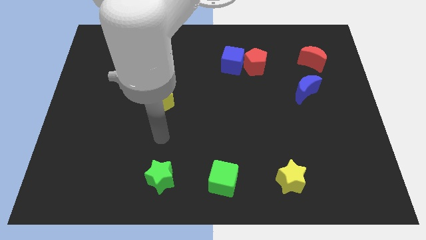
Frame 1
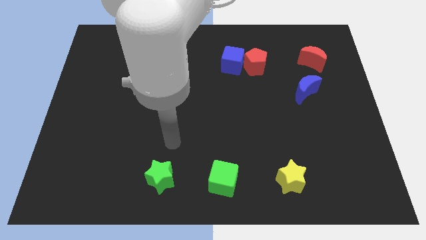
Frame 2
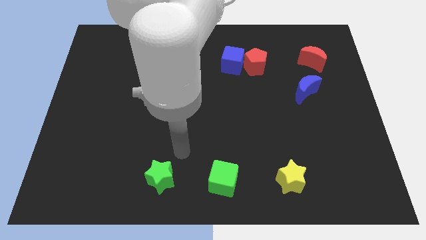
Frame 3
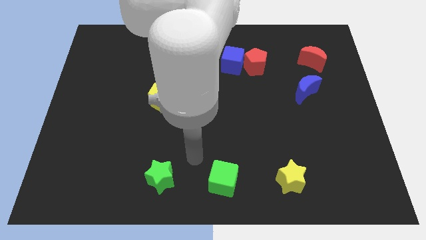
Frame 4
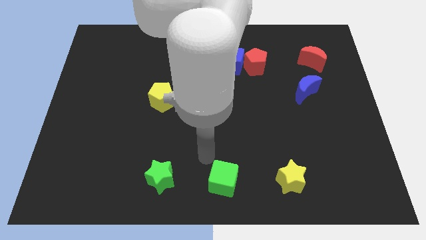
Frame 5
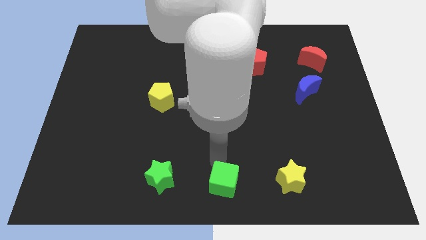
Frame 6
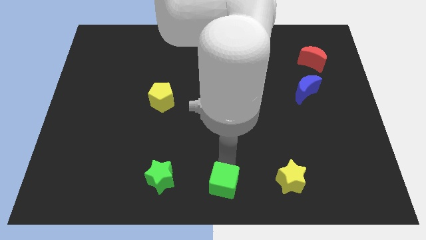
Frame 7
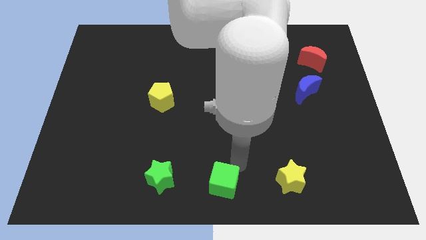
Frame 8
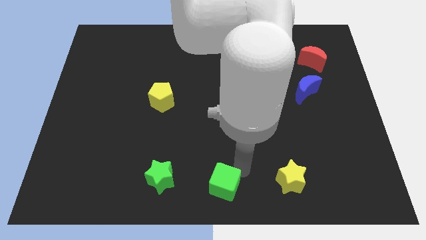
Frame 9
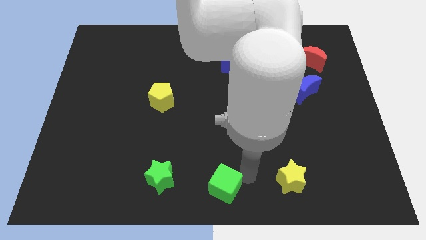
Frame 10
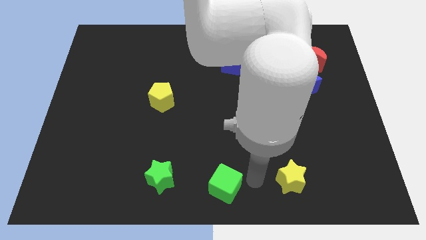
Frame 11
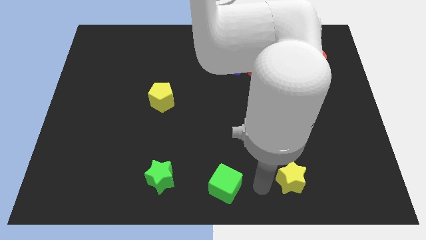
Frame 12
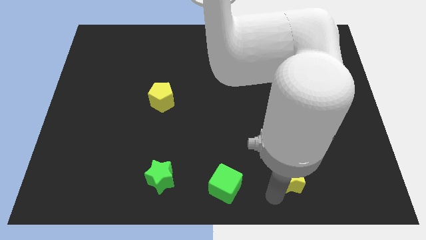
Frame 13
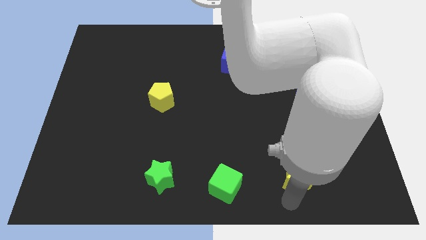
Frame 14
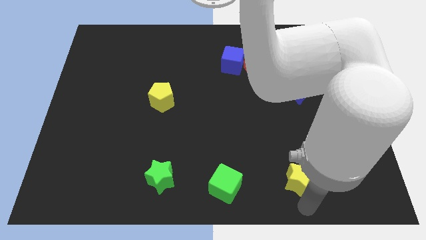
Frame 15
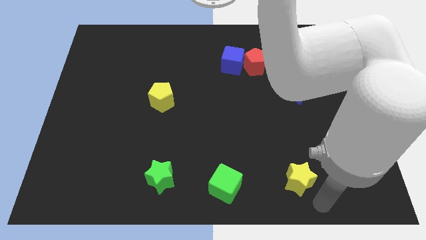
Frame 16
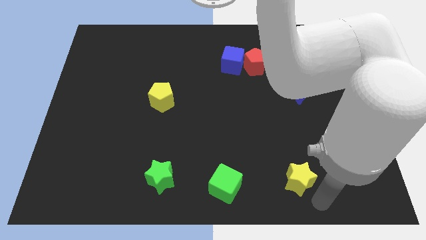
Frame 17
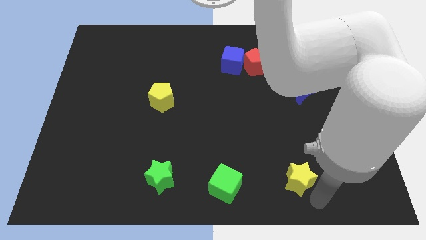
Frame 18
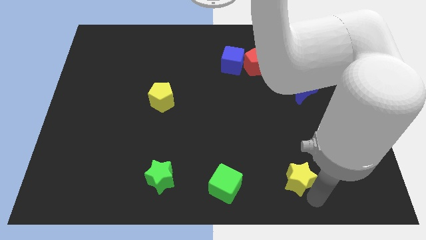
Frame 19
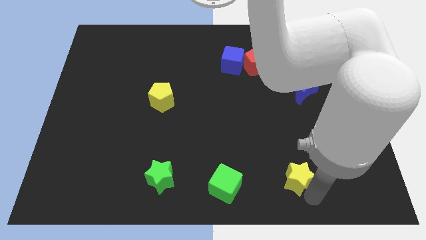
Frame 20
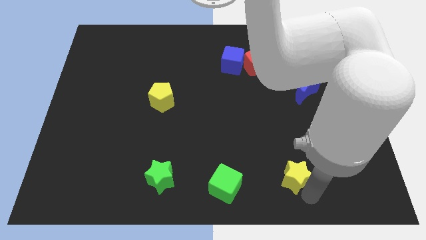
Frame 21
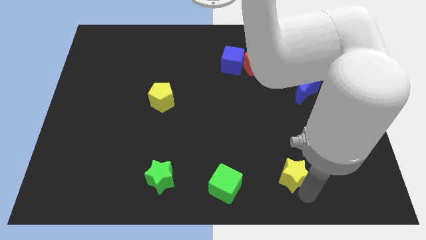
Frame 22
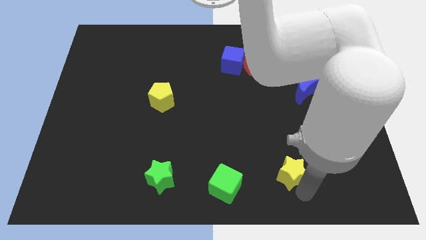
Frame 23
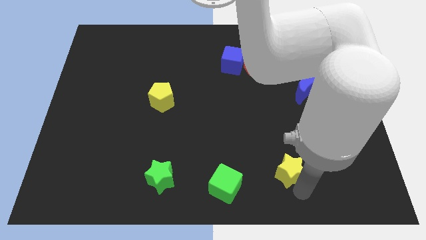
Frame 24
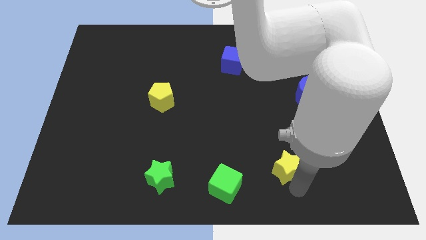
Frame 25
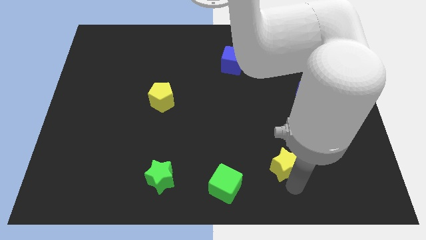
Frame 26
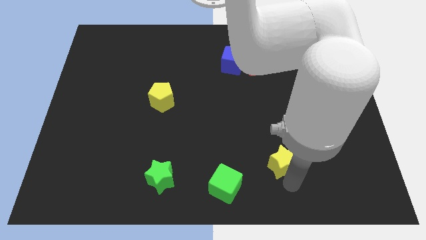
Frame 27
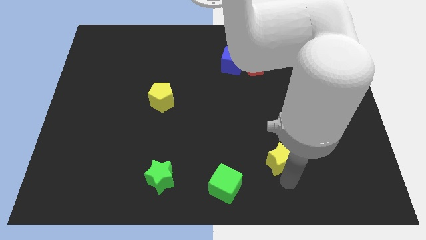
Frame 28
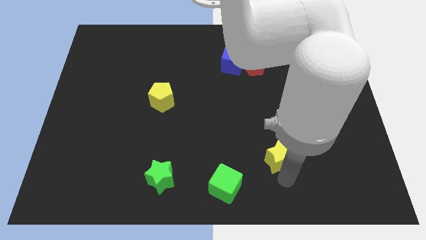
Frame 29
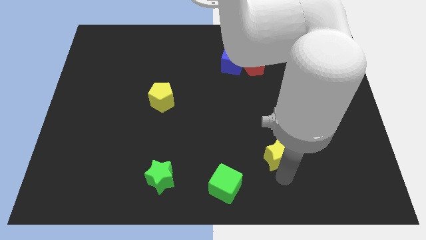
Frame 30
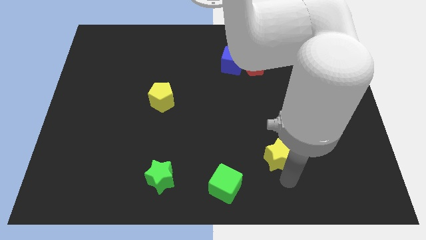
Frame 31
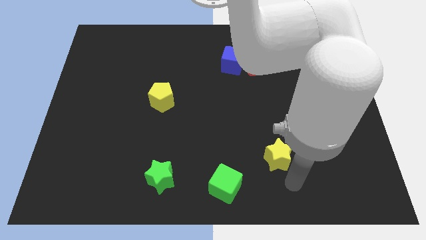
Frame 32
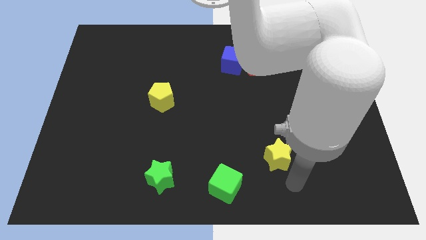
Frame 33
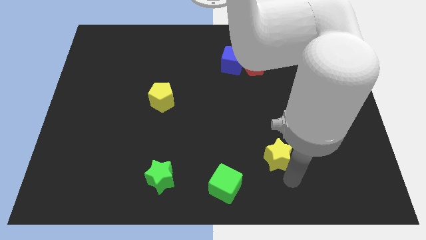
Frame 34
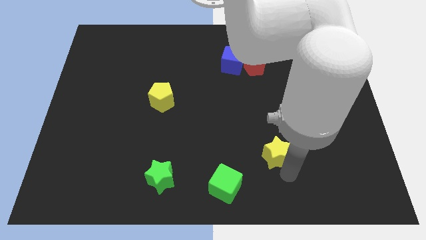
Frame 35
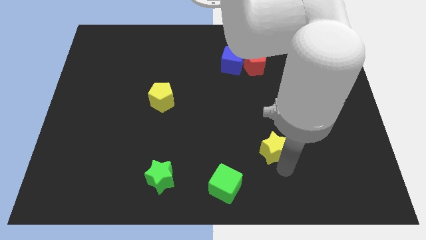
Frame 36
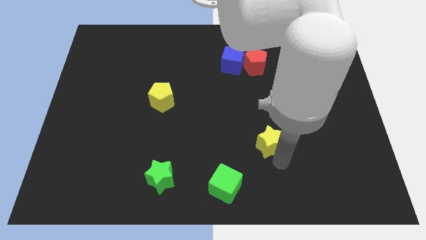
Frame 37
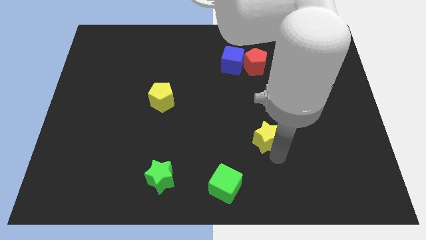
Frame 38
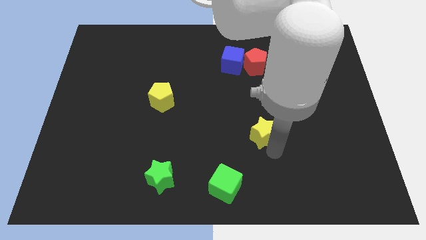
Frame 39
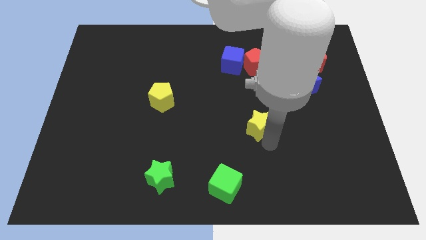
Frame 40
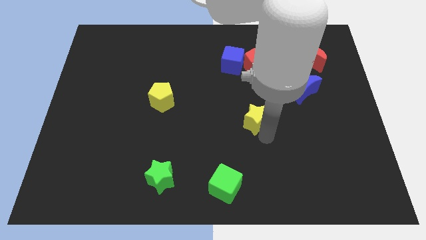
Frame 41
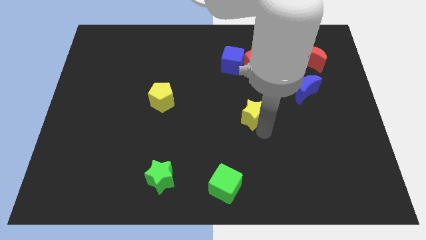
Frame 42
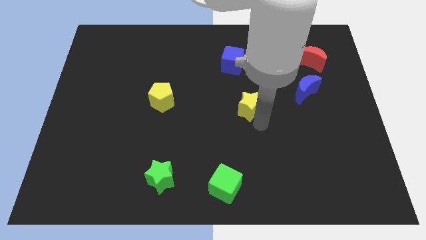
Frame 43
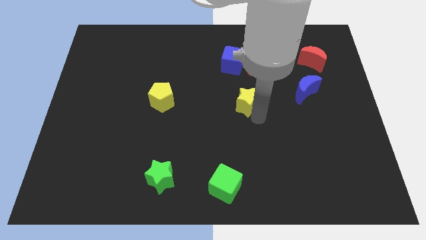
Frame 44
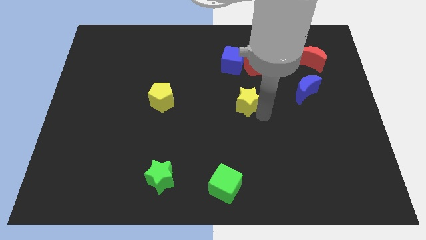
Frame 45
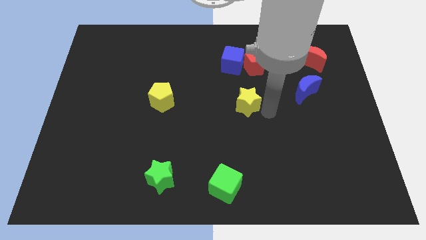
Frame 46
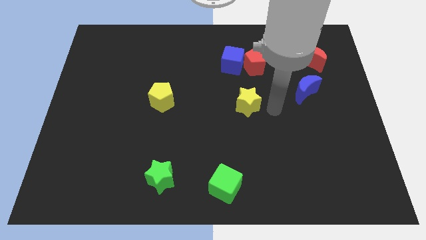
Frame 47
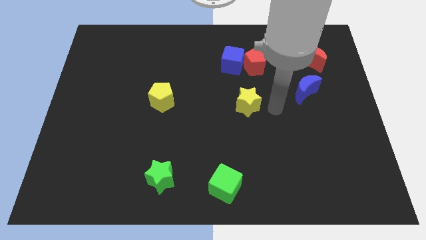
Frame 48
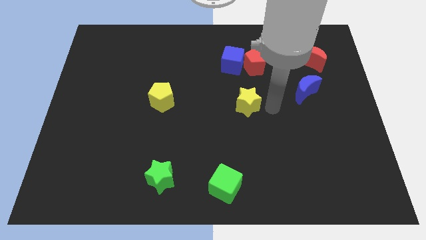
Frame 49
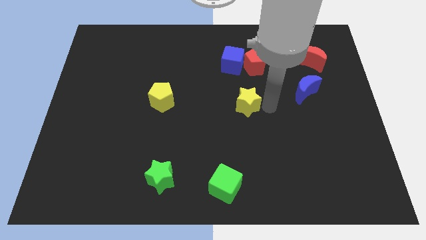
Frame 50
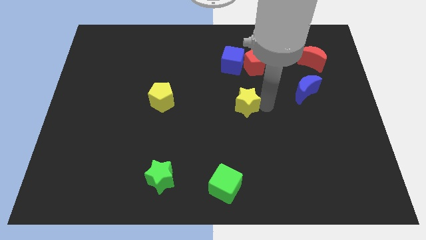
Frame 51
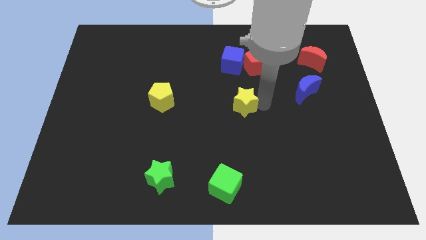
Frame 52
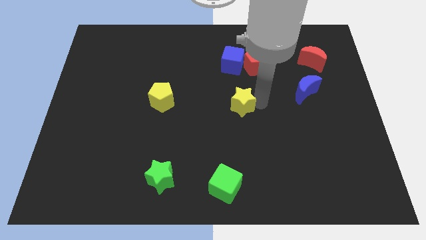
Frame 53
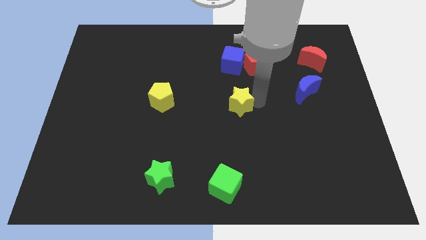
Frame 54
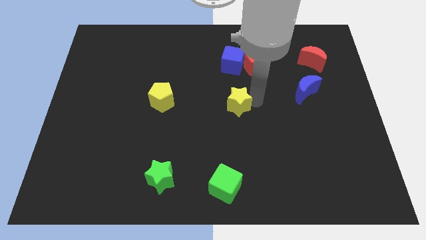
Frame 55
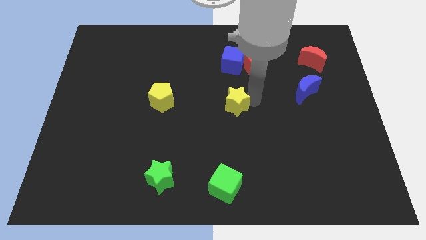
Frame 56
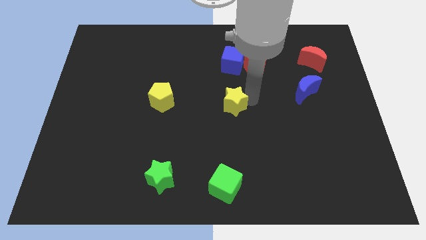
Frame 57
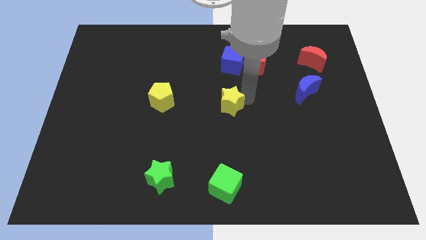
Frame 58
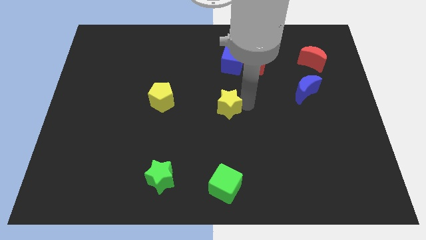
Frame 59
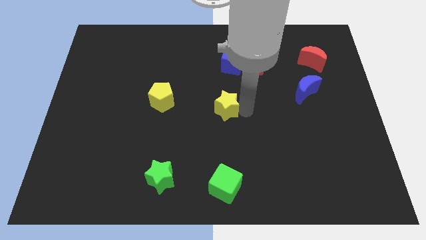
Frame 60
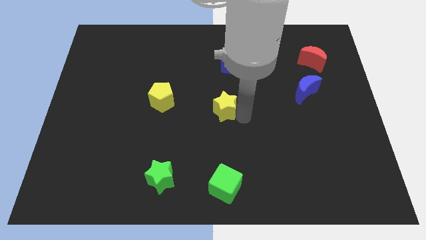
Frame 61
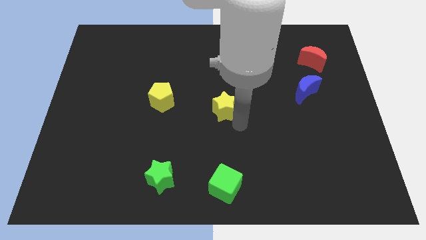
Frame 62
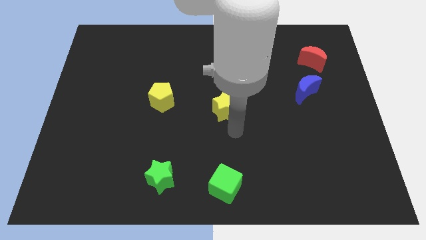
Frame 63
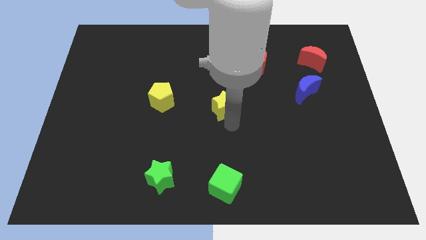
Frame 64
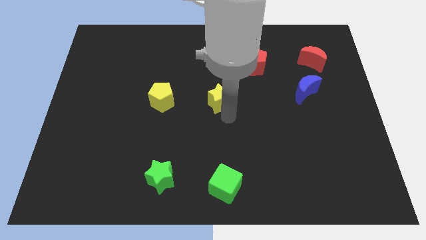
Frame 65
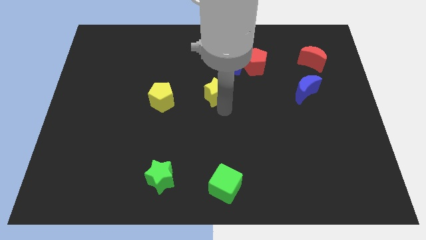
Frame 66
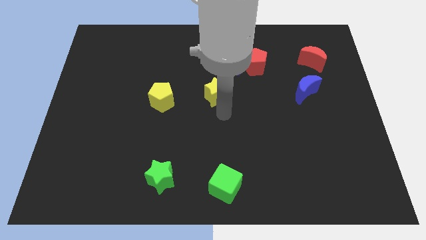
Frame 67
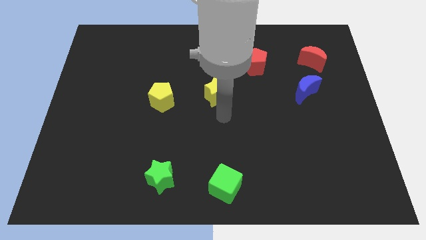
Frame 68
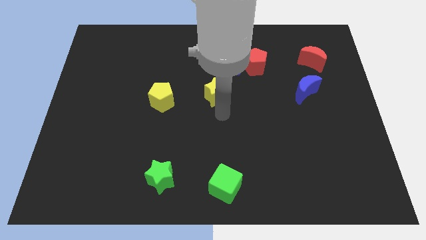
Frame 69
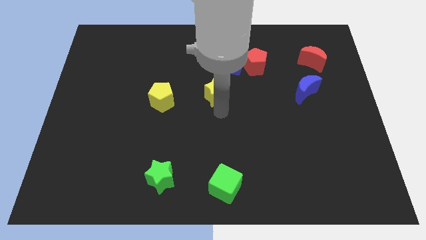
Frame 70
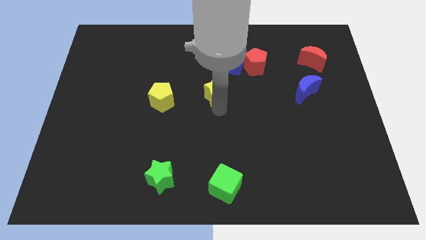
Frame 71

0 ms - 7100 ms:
move the yellow star diagonally down and to the left of the blue cube
